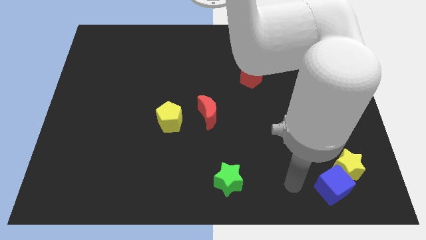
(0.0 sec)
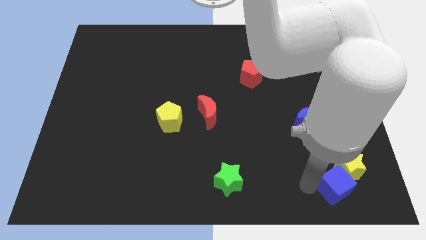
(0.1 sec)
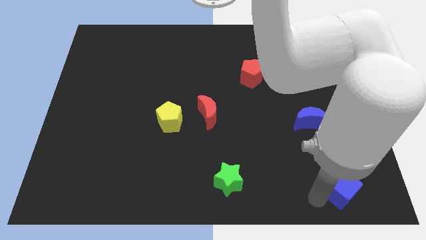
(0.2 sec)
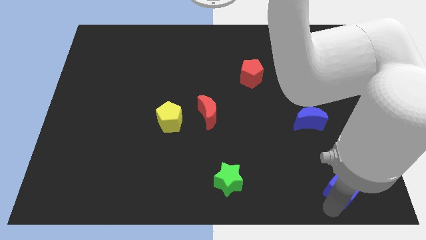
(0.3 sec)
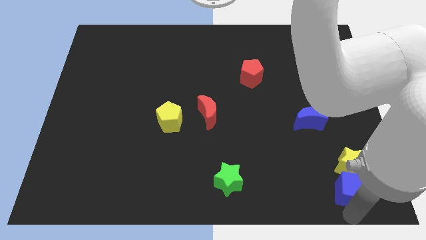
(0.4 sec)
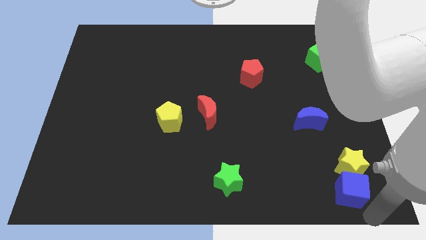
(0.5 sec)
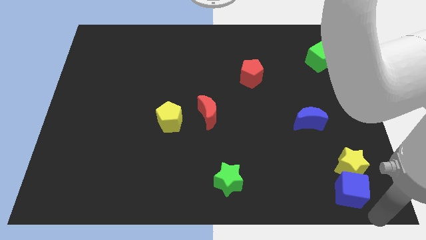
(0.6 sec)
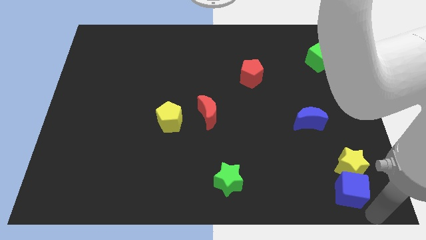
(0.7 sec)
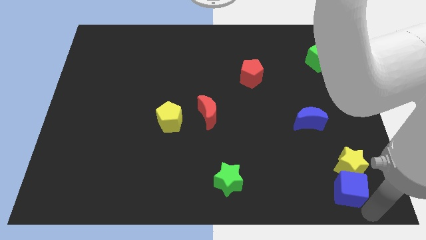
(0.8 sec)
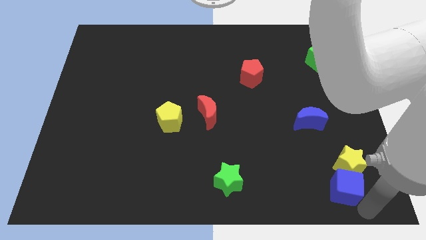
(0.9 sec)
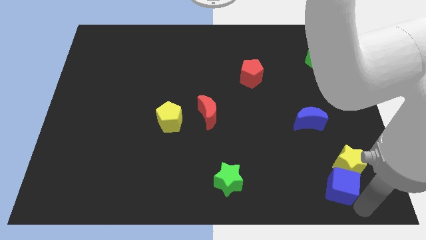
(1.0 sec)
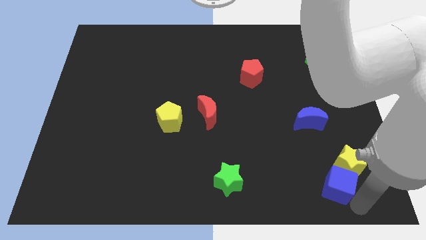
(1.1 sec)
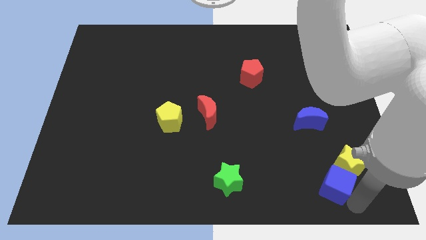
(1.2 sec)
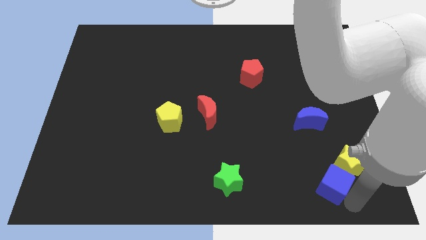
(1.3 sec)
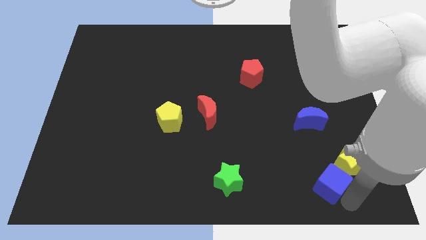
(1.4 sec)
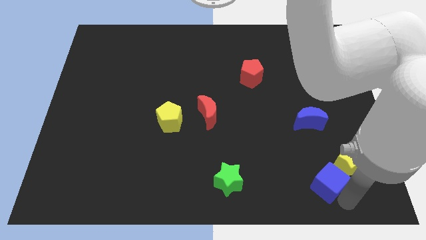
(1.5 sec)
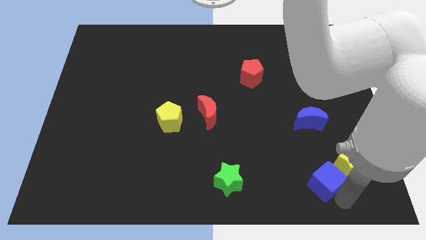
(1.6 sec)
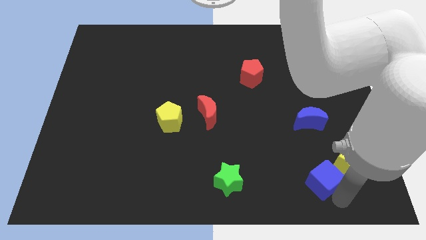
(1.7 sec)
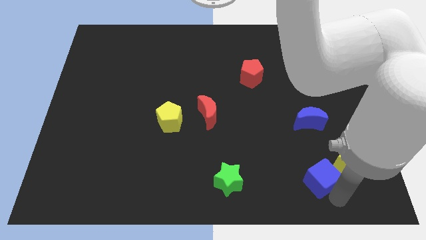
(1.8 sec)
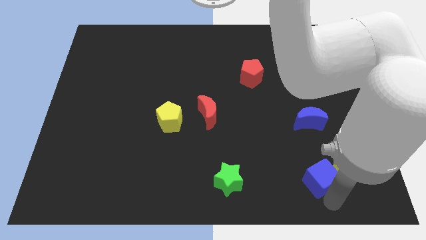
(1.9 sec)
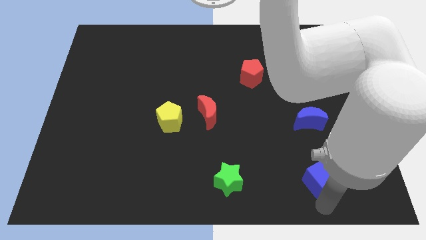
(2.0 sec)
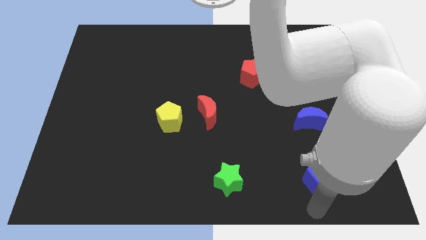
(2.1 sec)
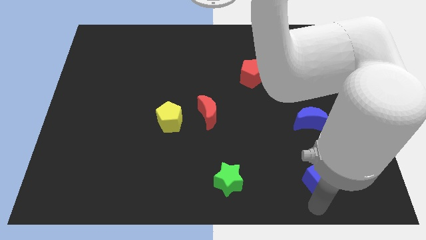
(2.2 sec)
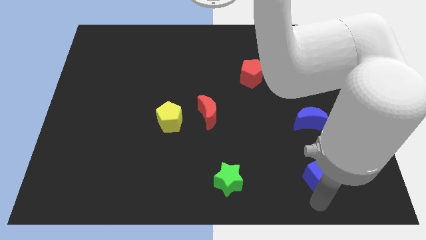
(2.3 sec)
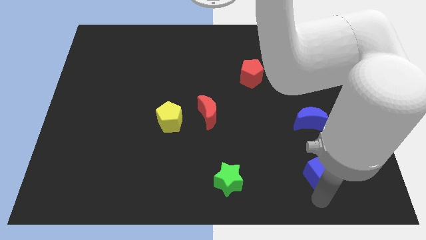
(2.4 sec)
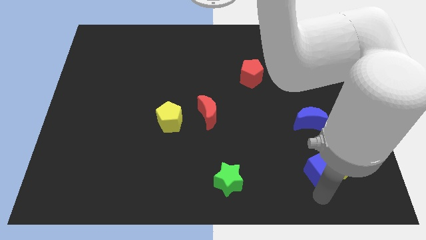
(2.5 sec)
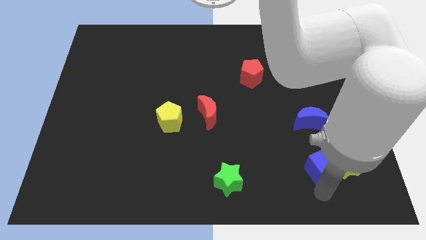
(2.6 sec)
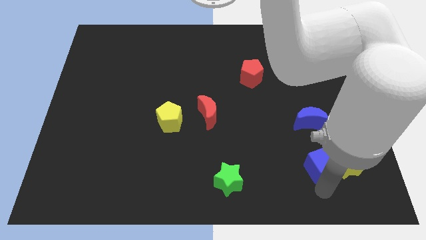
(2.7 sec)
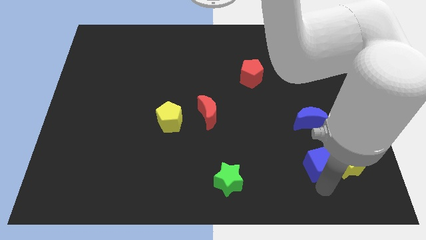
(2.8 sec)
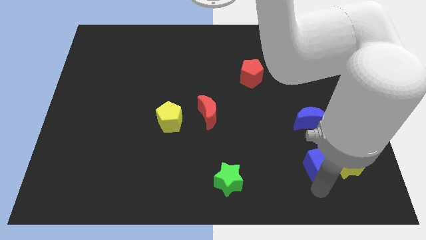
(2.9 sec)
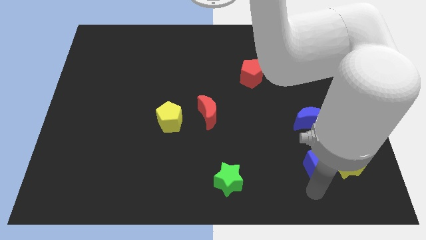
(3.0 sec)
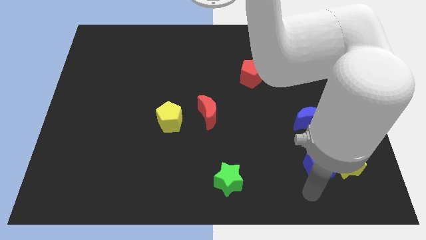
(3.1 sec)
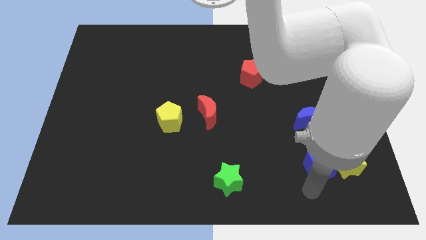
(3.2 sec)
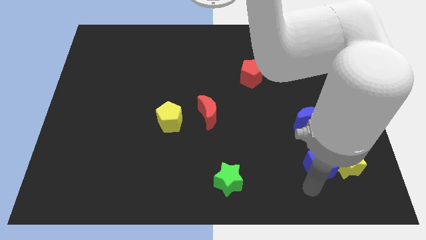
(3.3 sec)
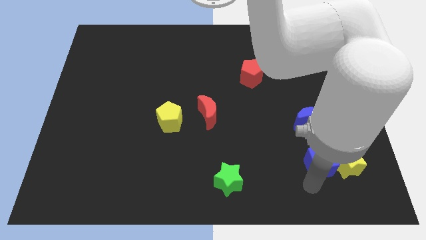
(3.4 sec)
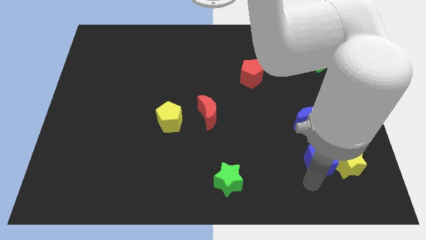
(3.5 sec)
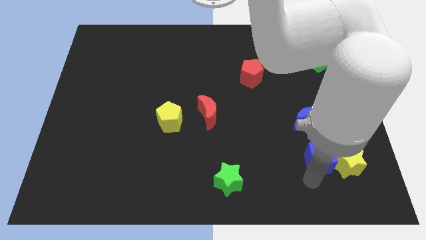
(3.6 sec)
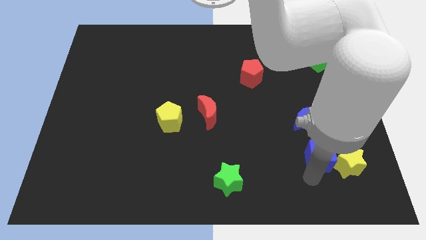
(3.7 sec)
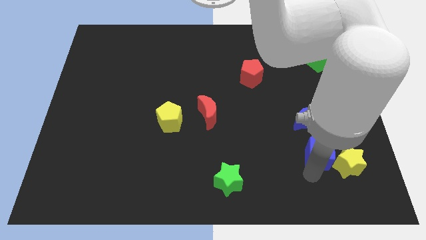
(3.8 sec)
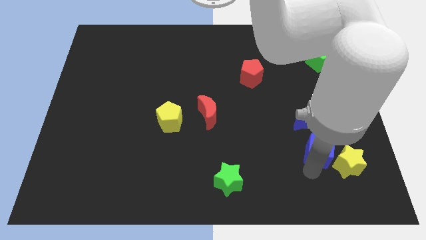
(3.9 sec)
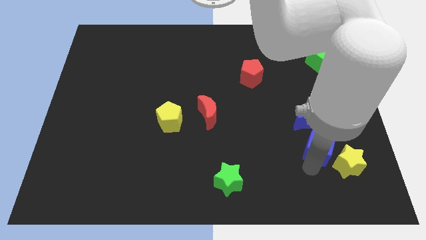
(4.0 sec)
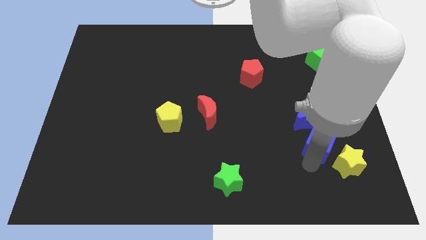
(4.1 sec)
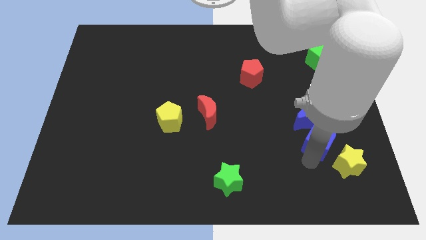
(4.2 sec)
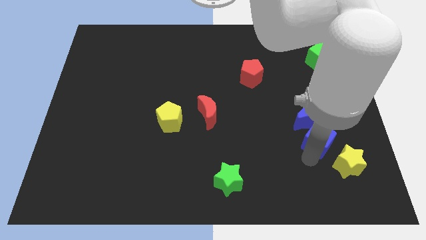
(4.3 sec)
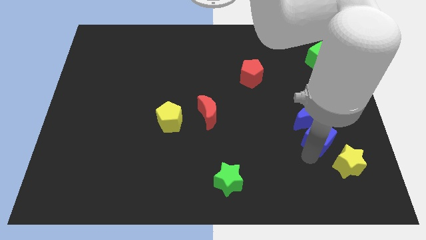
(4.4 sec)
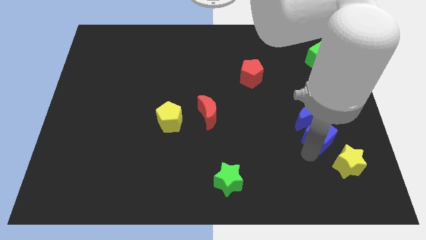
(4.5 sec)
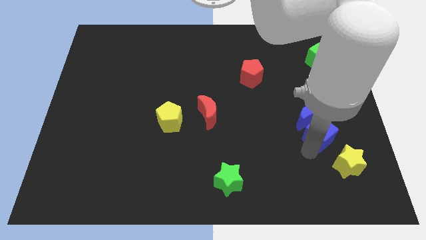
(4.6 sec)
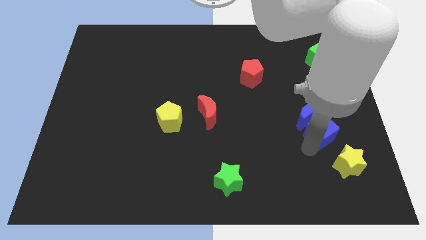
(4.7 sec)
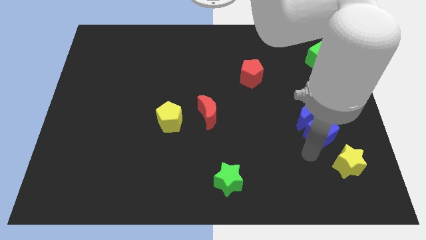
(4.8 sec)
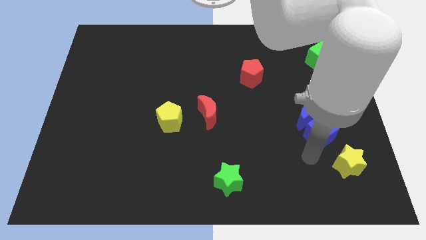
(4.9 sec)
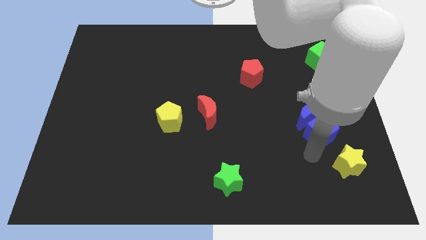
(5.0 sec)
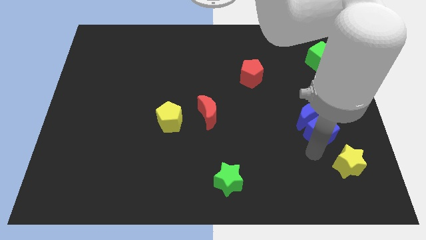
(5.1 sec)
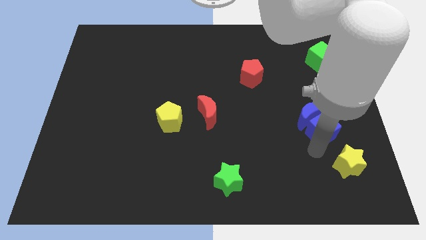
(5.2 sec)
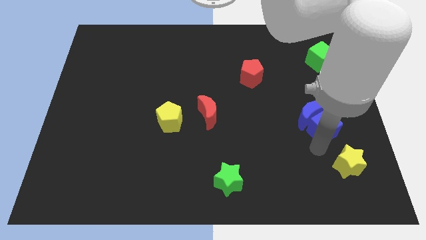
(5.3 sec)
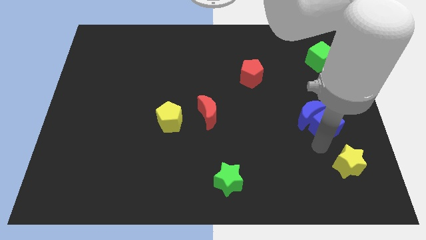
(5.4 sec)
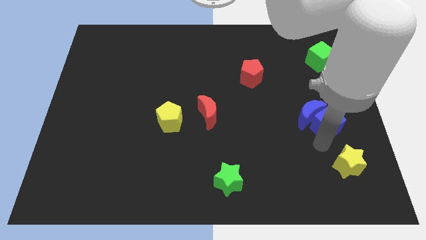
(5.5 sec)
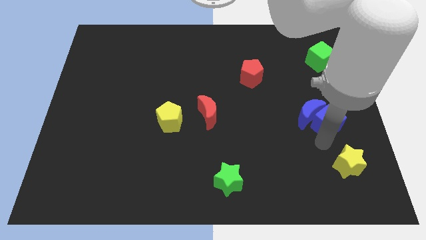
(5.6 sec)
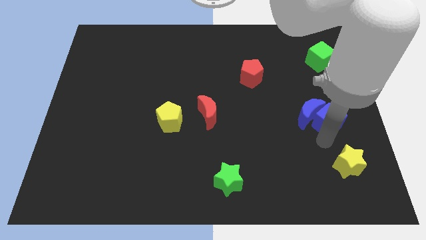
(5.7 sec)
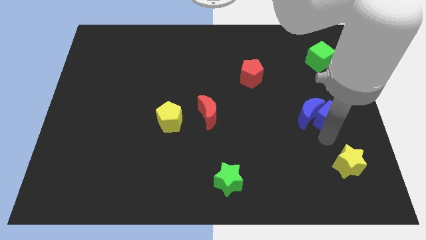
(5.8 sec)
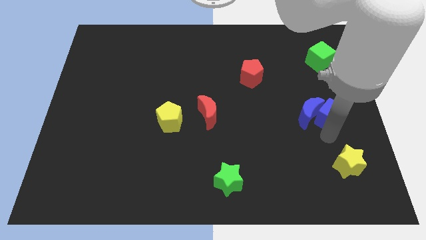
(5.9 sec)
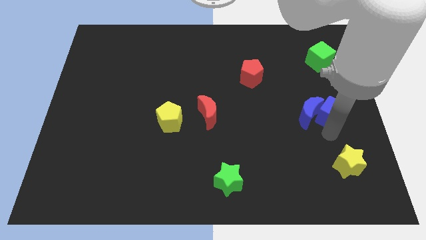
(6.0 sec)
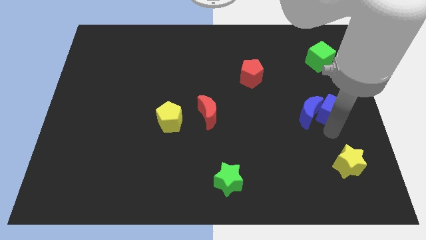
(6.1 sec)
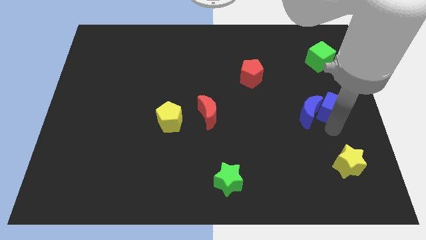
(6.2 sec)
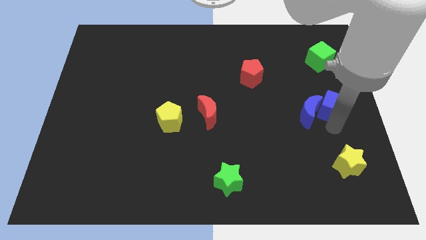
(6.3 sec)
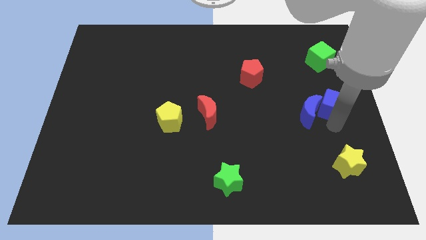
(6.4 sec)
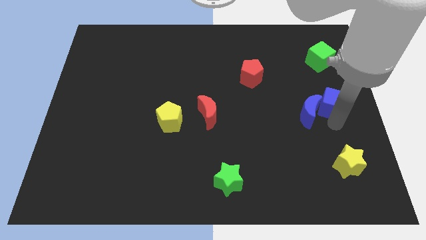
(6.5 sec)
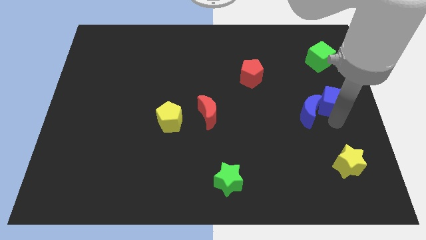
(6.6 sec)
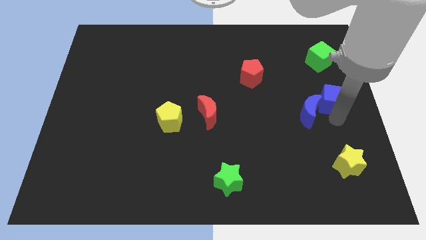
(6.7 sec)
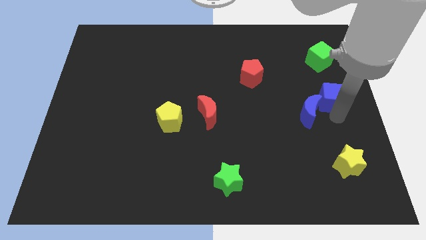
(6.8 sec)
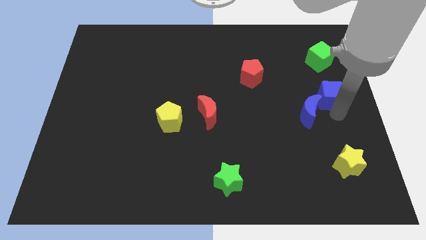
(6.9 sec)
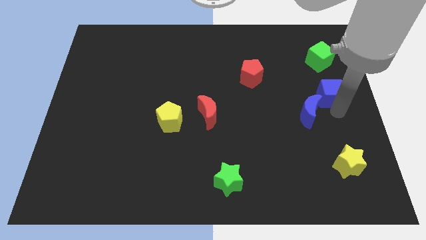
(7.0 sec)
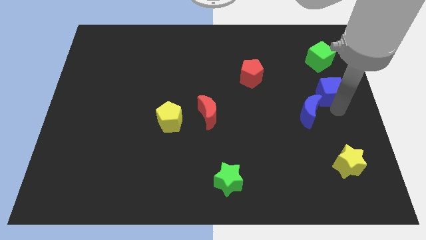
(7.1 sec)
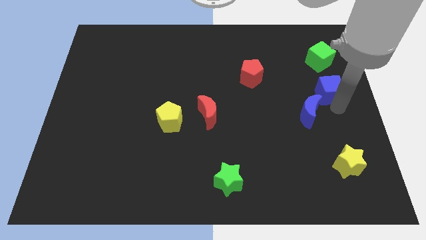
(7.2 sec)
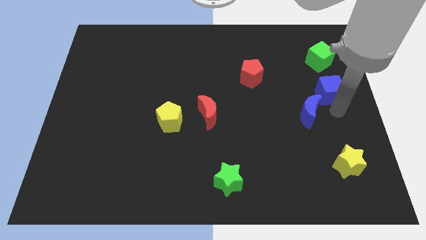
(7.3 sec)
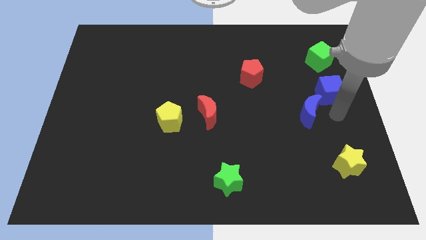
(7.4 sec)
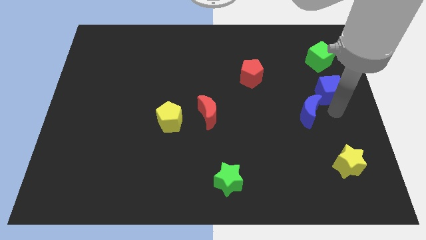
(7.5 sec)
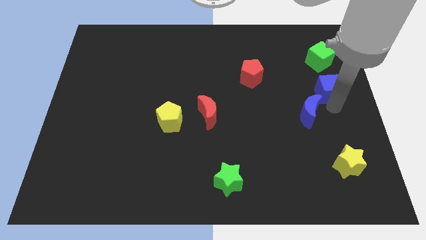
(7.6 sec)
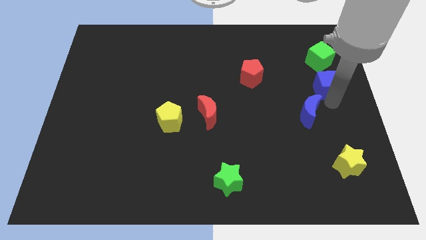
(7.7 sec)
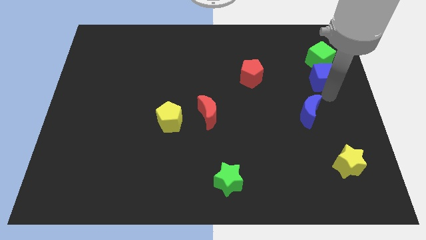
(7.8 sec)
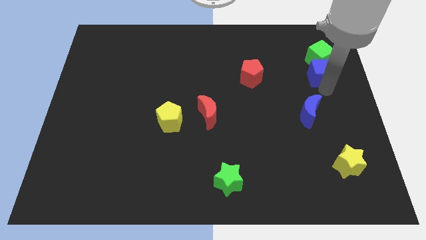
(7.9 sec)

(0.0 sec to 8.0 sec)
move the blue cube to the green cube
